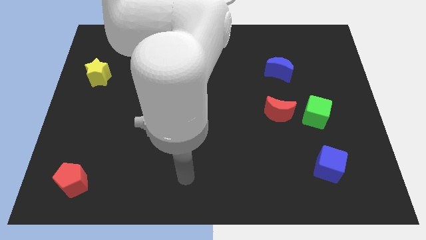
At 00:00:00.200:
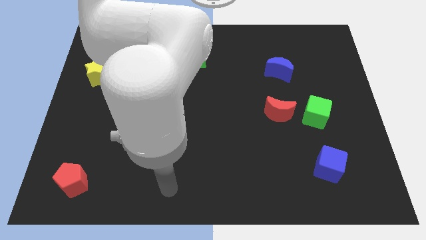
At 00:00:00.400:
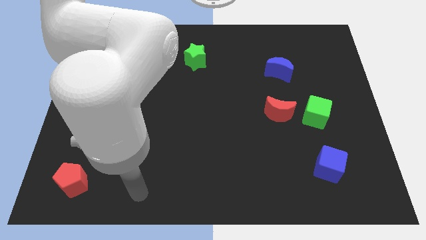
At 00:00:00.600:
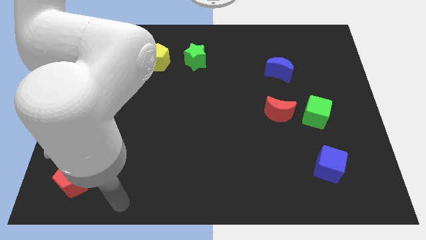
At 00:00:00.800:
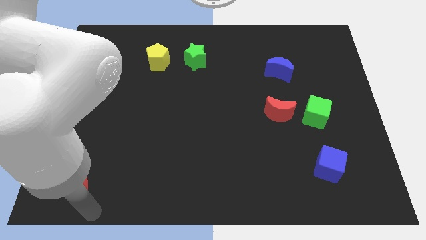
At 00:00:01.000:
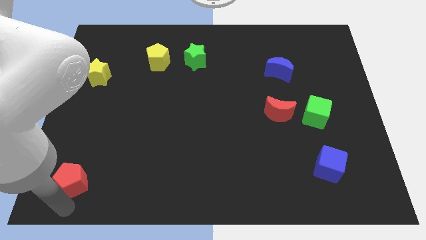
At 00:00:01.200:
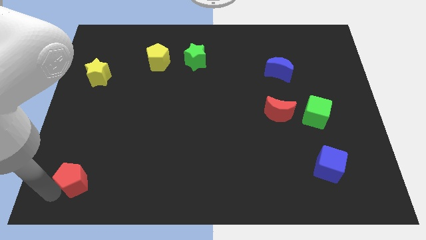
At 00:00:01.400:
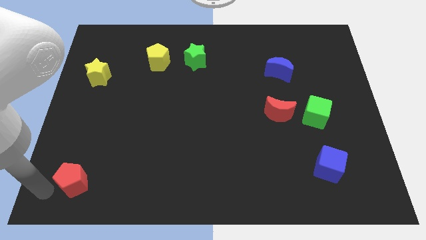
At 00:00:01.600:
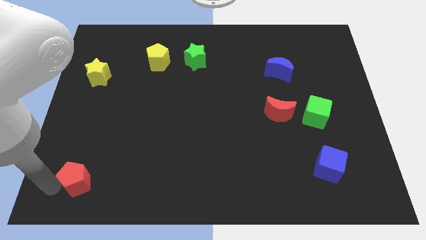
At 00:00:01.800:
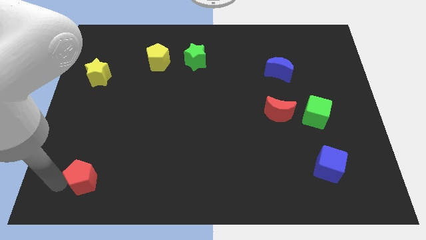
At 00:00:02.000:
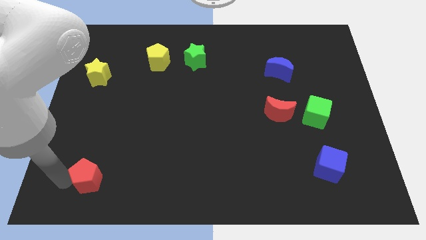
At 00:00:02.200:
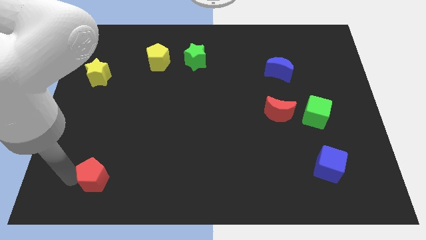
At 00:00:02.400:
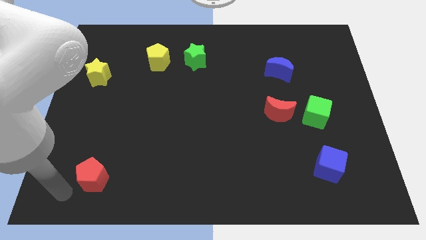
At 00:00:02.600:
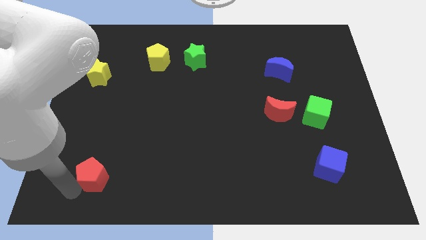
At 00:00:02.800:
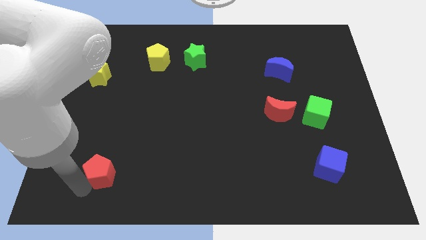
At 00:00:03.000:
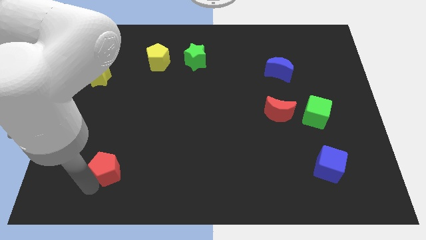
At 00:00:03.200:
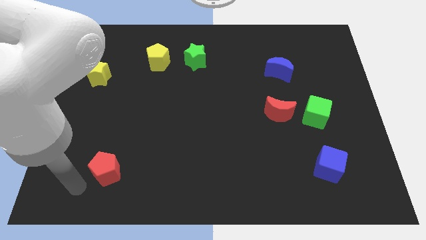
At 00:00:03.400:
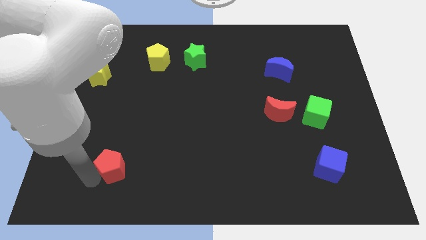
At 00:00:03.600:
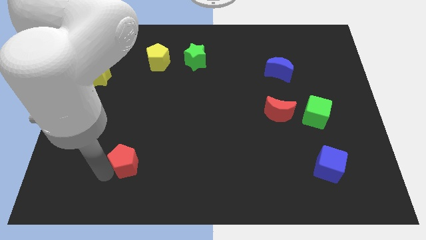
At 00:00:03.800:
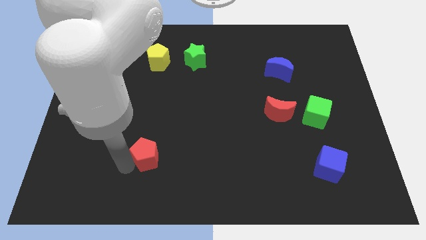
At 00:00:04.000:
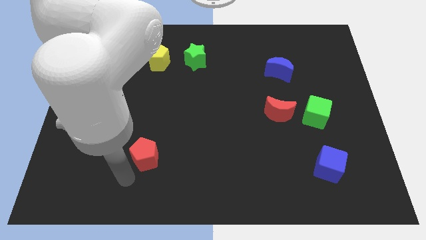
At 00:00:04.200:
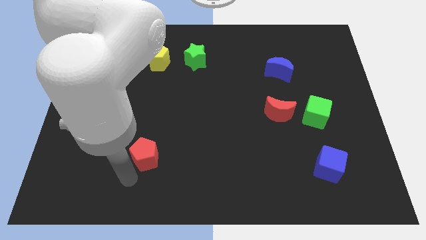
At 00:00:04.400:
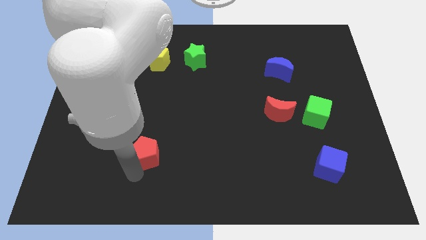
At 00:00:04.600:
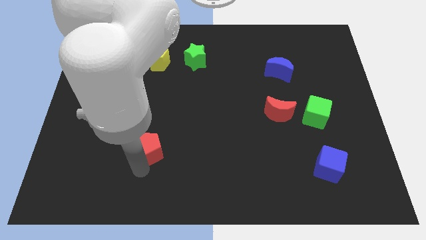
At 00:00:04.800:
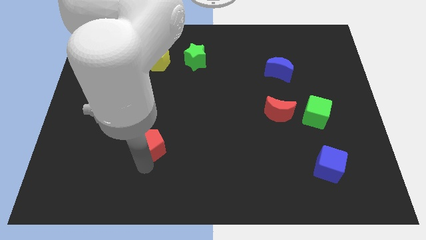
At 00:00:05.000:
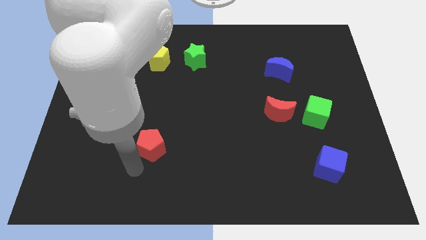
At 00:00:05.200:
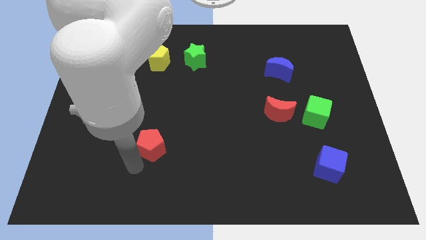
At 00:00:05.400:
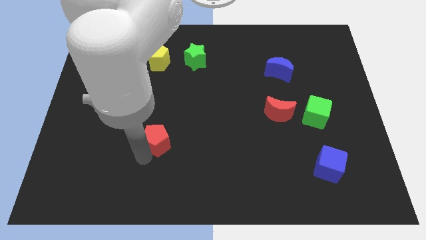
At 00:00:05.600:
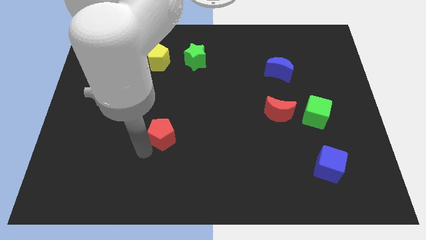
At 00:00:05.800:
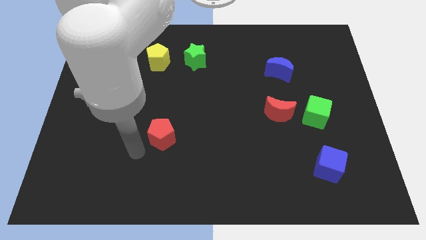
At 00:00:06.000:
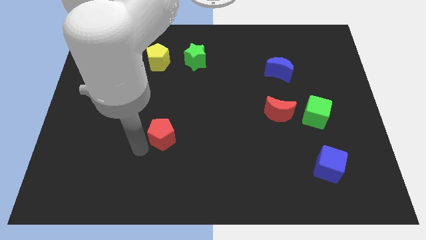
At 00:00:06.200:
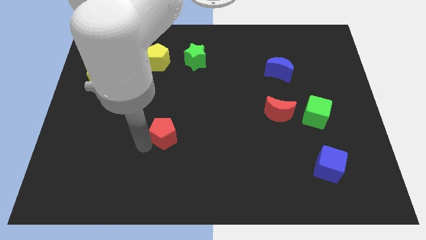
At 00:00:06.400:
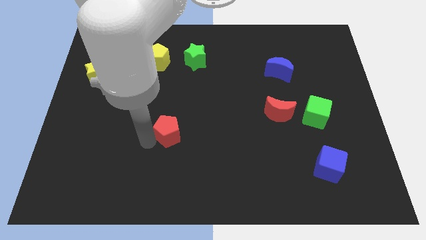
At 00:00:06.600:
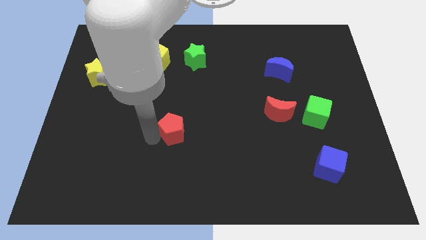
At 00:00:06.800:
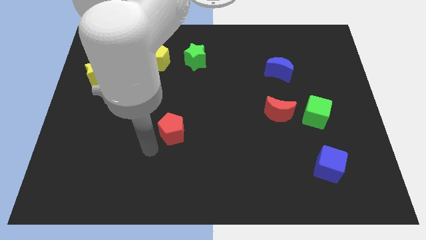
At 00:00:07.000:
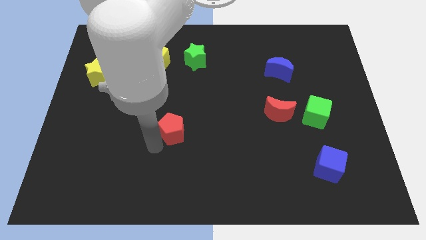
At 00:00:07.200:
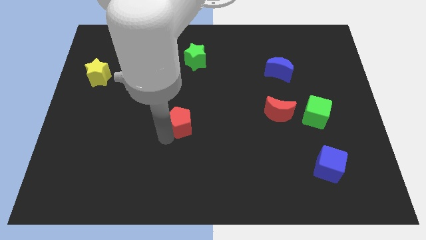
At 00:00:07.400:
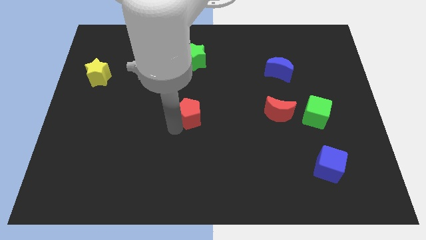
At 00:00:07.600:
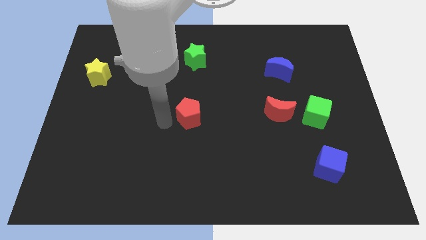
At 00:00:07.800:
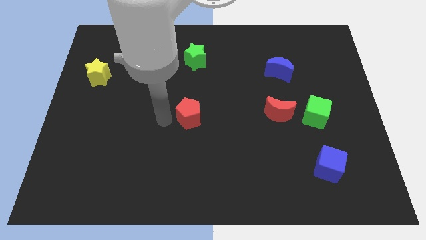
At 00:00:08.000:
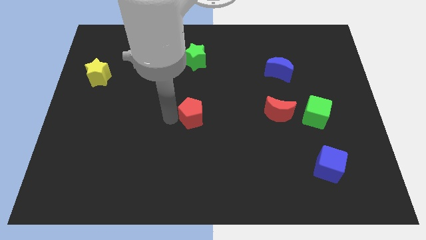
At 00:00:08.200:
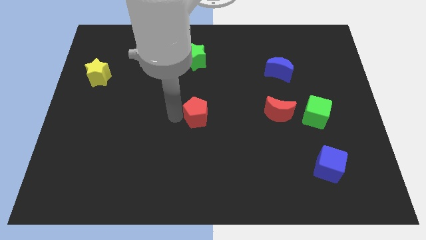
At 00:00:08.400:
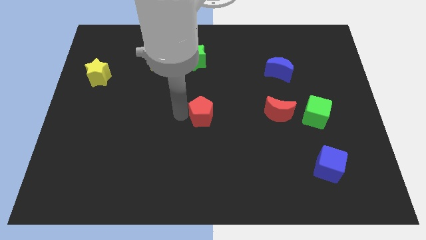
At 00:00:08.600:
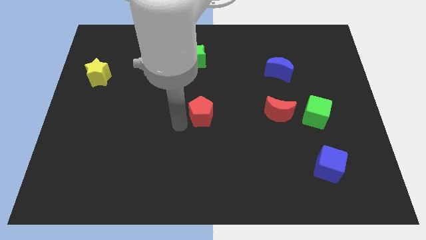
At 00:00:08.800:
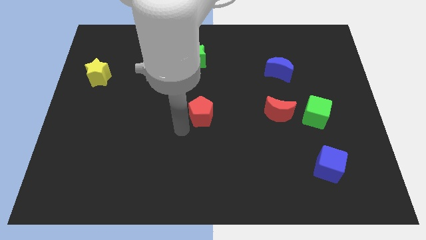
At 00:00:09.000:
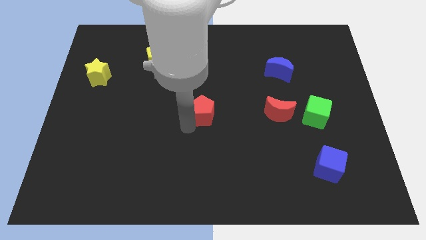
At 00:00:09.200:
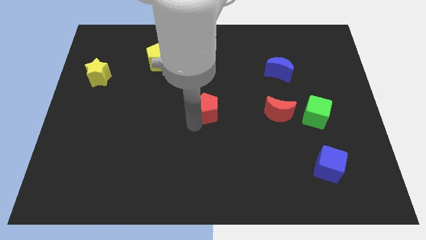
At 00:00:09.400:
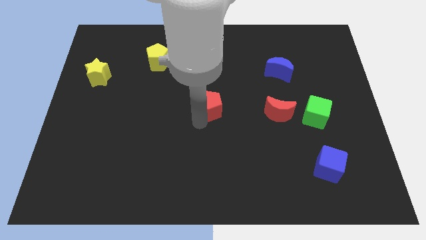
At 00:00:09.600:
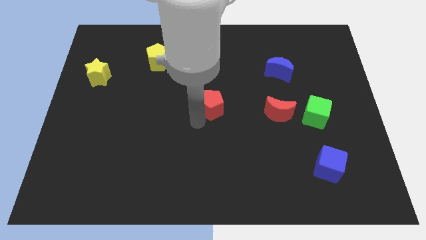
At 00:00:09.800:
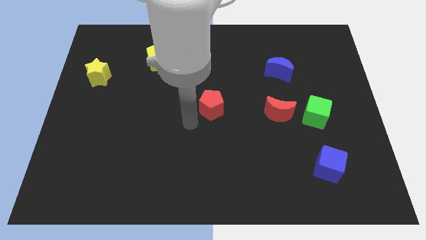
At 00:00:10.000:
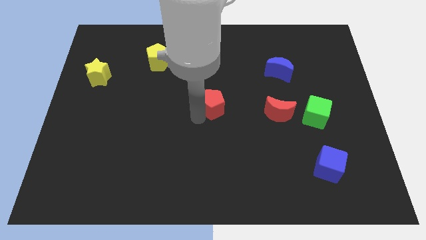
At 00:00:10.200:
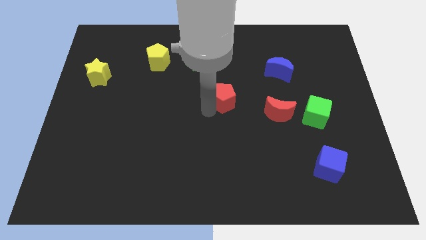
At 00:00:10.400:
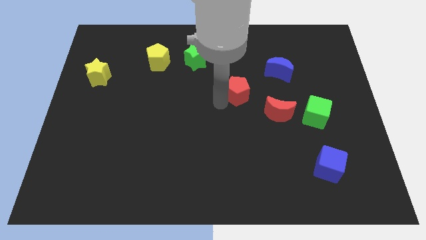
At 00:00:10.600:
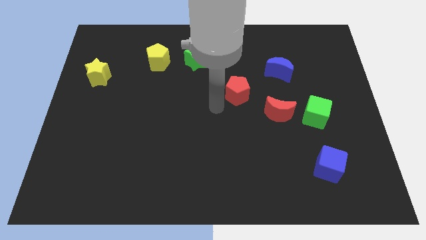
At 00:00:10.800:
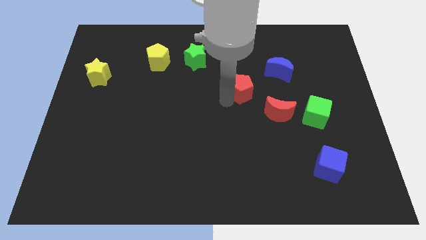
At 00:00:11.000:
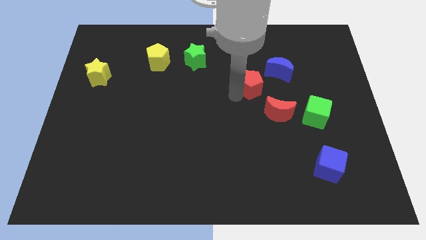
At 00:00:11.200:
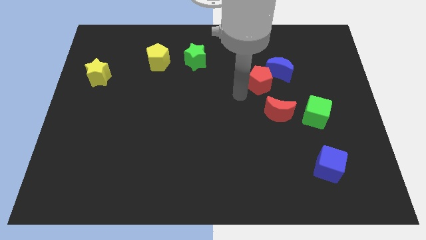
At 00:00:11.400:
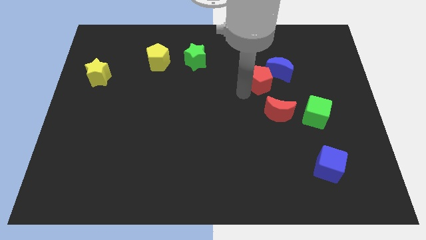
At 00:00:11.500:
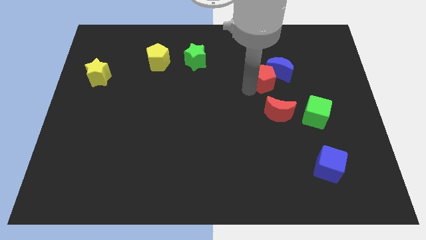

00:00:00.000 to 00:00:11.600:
move the red pentagon to the blue moon

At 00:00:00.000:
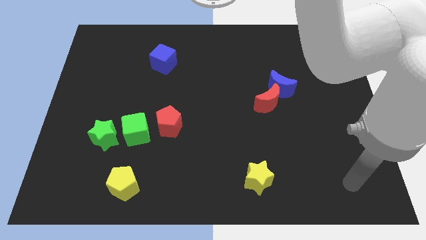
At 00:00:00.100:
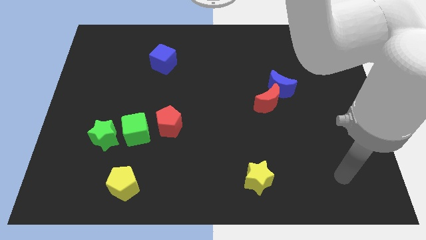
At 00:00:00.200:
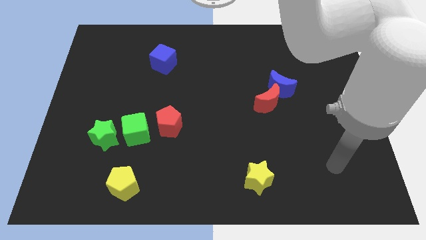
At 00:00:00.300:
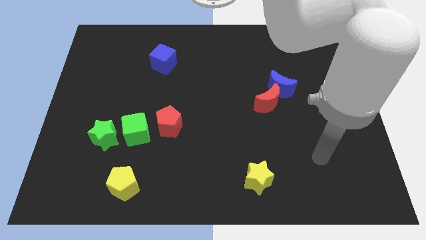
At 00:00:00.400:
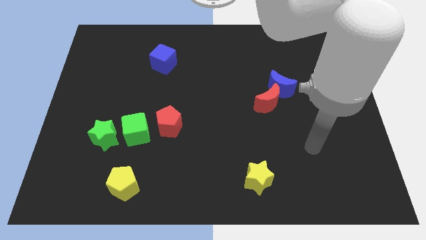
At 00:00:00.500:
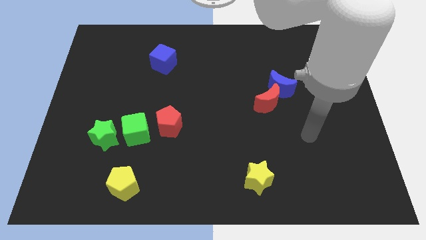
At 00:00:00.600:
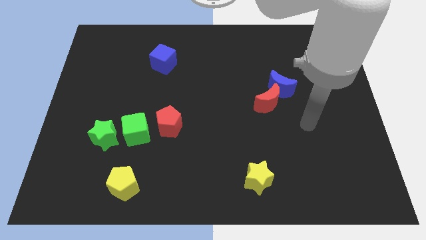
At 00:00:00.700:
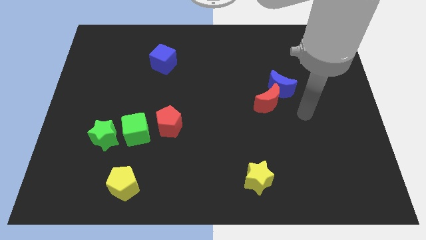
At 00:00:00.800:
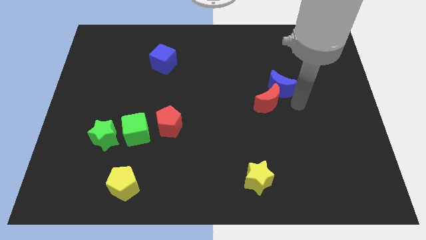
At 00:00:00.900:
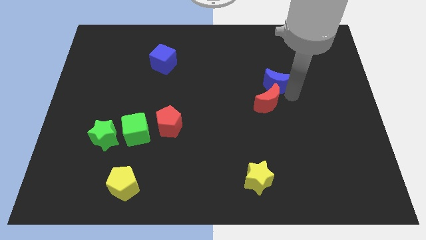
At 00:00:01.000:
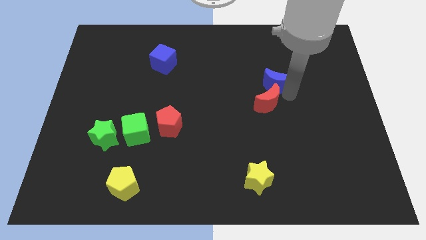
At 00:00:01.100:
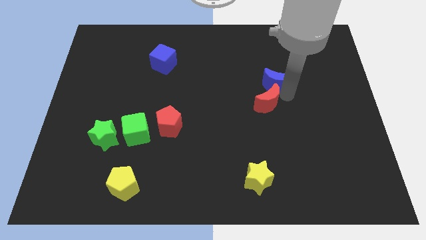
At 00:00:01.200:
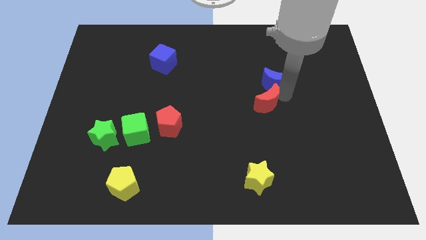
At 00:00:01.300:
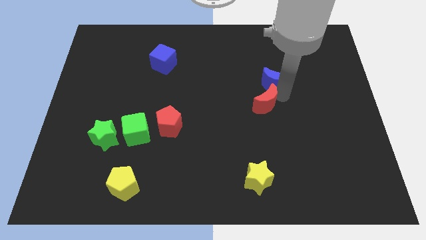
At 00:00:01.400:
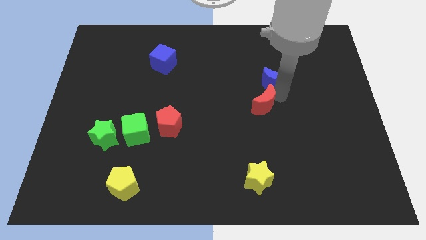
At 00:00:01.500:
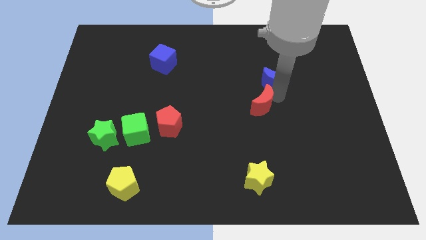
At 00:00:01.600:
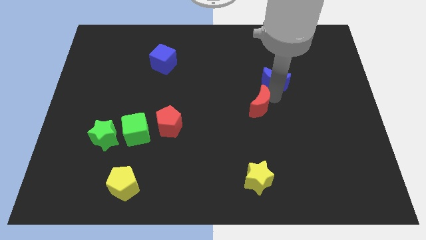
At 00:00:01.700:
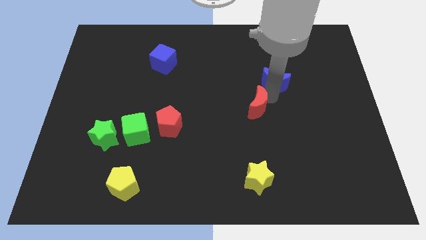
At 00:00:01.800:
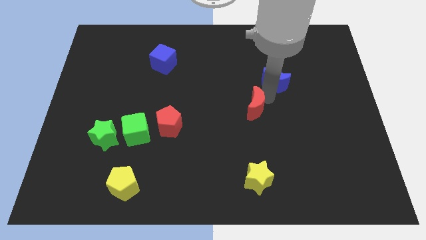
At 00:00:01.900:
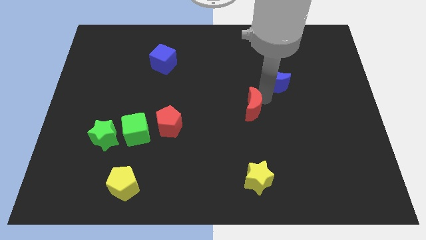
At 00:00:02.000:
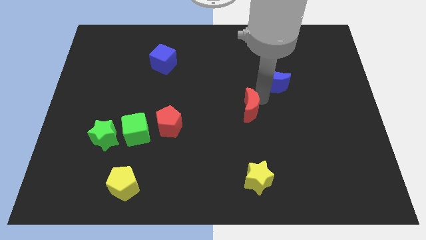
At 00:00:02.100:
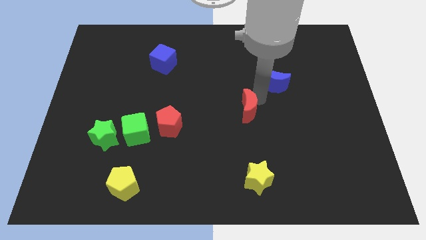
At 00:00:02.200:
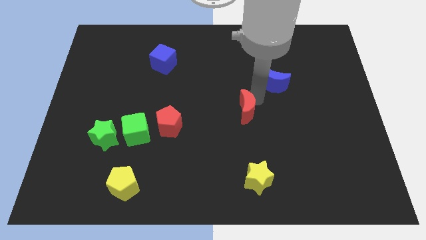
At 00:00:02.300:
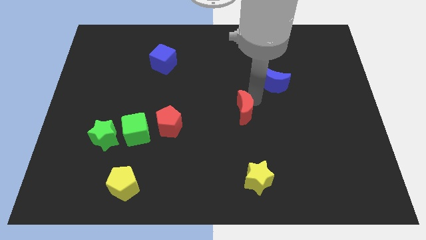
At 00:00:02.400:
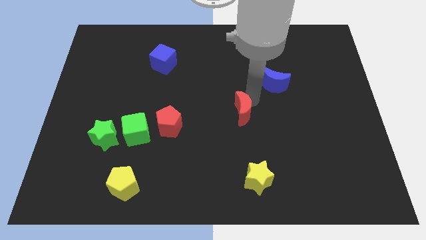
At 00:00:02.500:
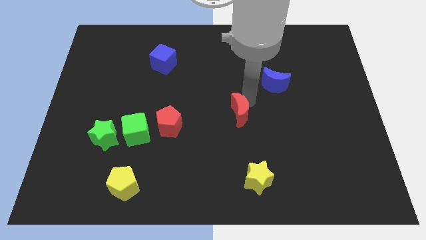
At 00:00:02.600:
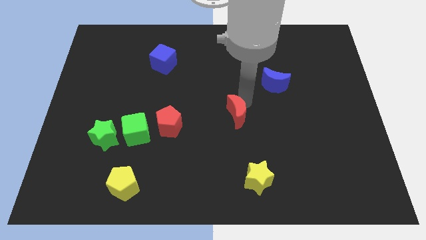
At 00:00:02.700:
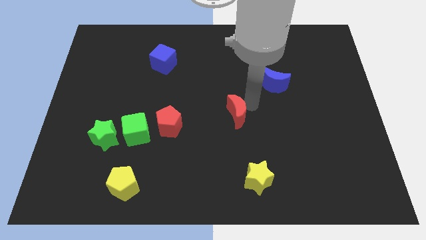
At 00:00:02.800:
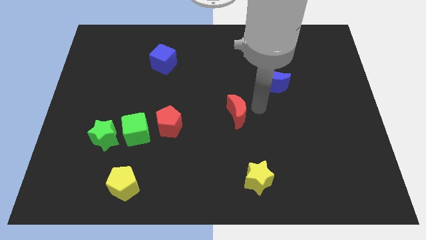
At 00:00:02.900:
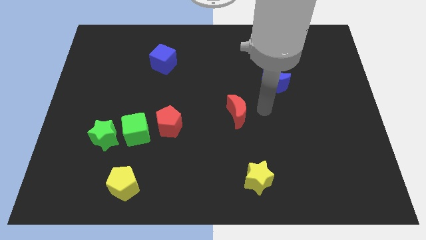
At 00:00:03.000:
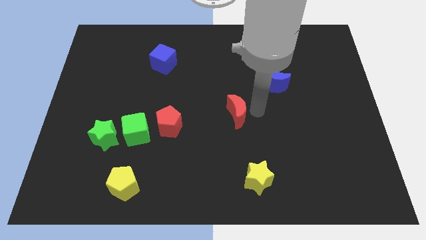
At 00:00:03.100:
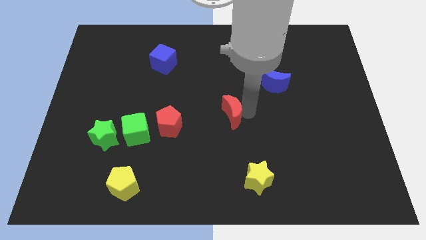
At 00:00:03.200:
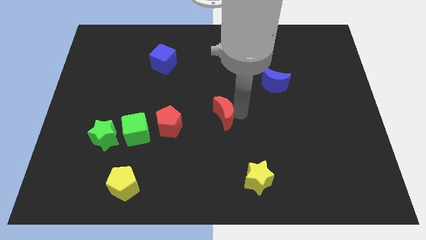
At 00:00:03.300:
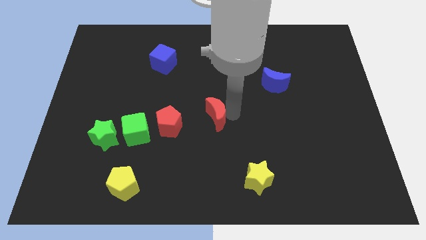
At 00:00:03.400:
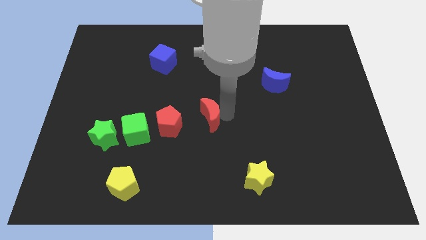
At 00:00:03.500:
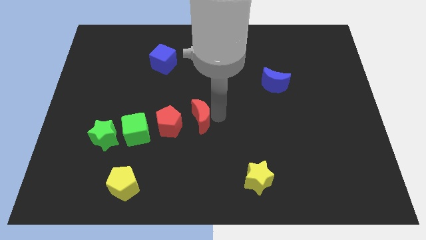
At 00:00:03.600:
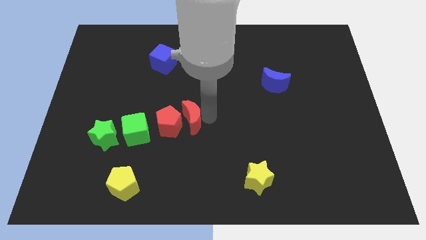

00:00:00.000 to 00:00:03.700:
slide the red moon next to the red pentagon
